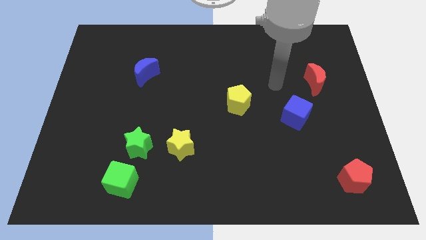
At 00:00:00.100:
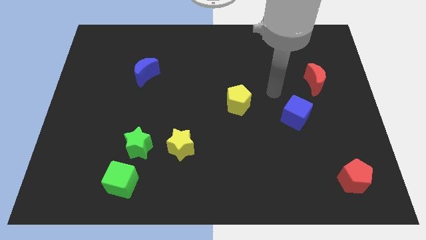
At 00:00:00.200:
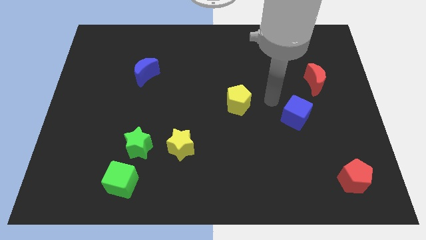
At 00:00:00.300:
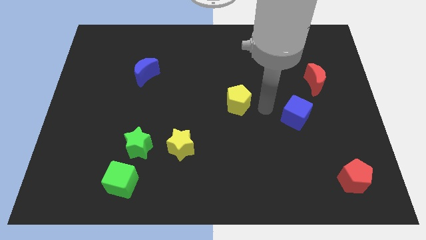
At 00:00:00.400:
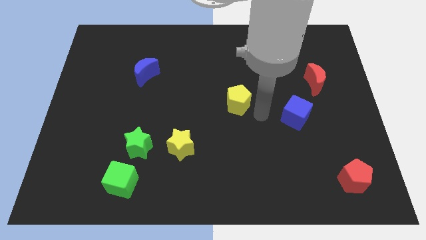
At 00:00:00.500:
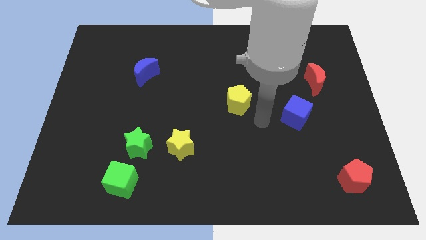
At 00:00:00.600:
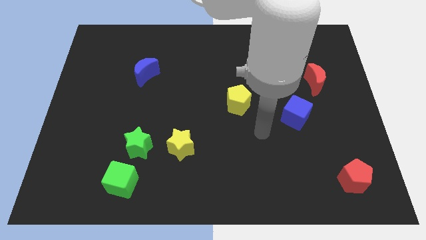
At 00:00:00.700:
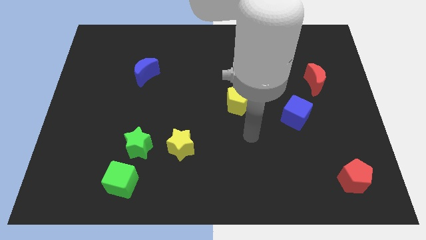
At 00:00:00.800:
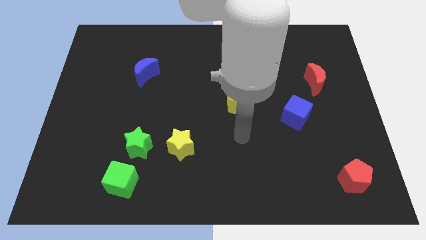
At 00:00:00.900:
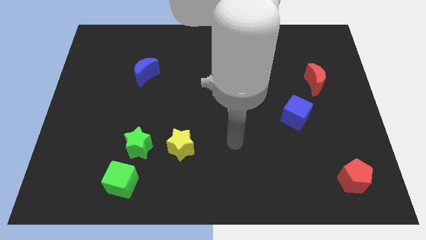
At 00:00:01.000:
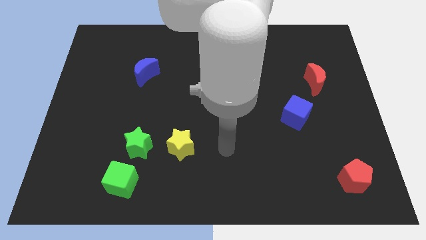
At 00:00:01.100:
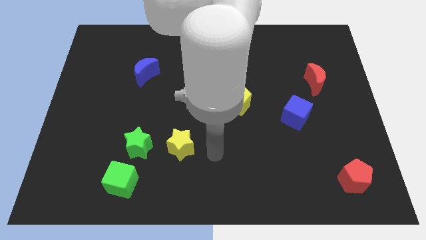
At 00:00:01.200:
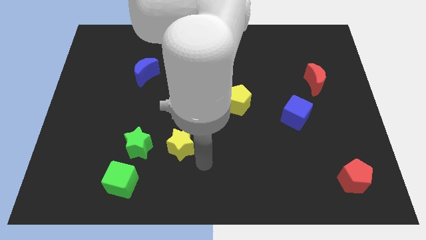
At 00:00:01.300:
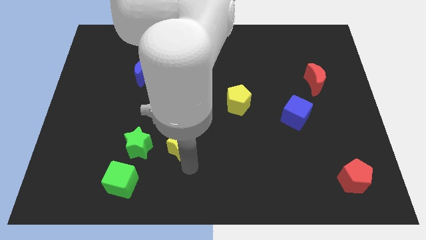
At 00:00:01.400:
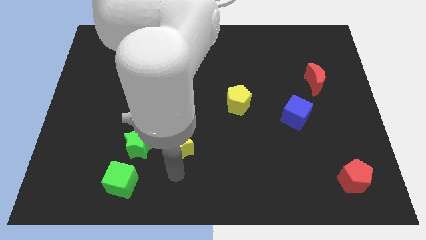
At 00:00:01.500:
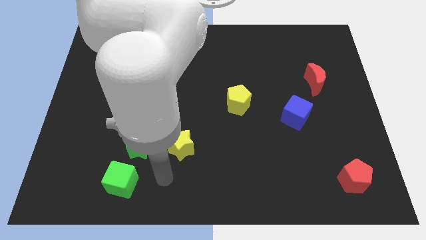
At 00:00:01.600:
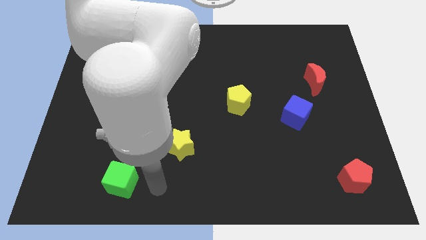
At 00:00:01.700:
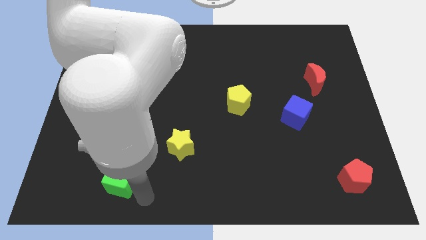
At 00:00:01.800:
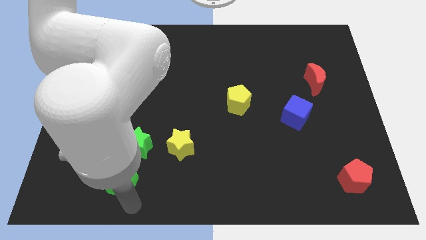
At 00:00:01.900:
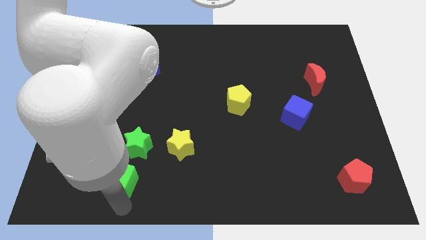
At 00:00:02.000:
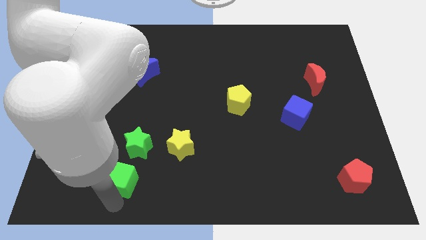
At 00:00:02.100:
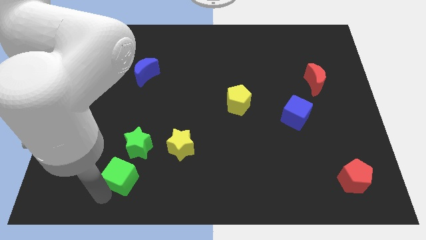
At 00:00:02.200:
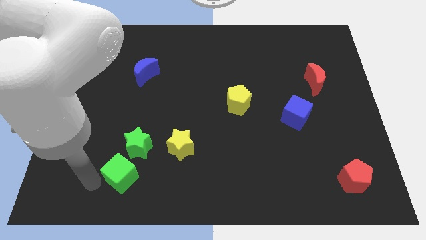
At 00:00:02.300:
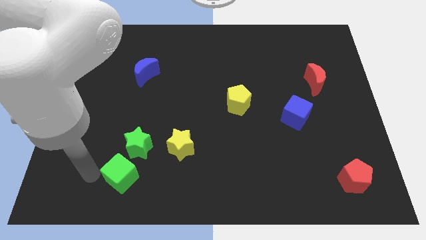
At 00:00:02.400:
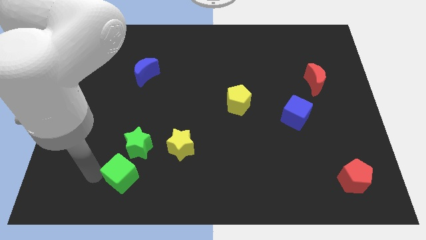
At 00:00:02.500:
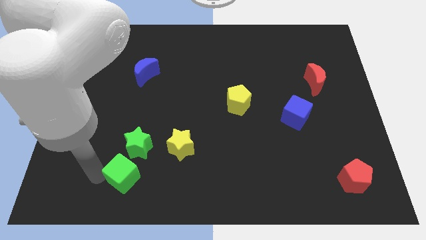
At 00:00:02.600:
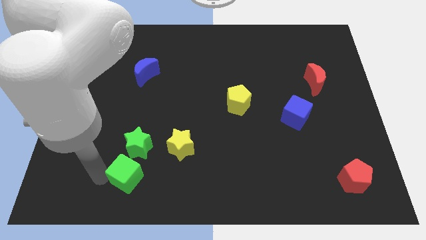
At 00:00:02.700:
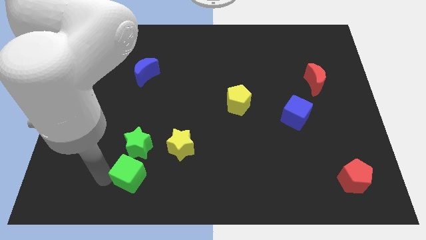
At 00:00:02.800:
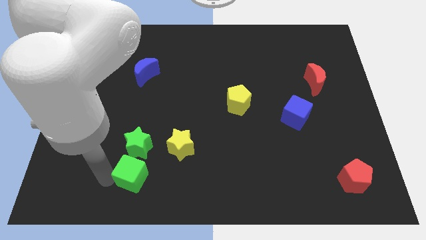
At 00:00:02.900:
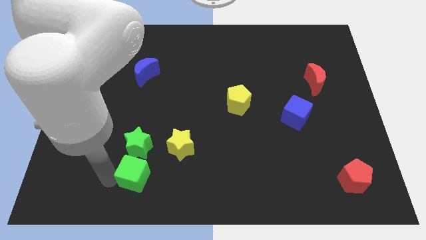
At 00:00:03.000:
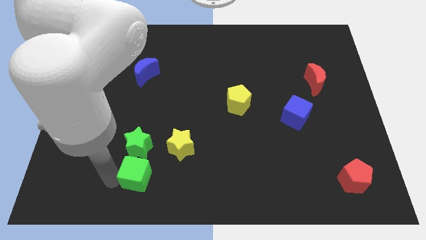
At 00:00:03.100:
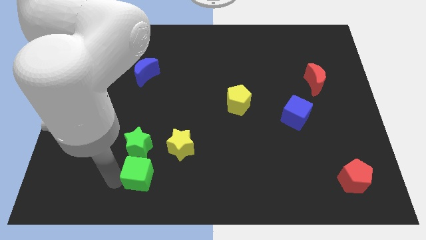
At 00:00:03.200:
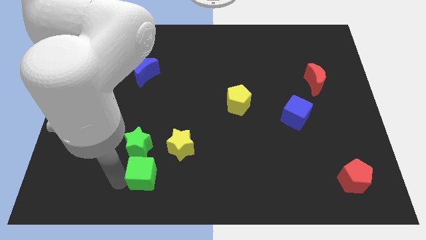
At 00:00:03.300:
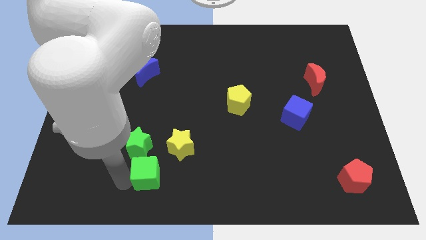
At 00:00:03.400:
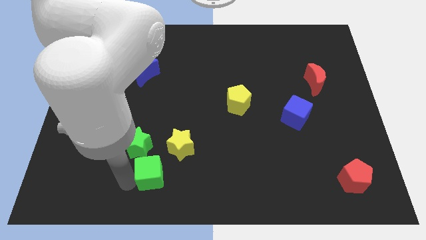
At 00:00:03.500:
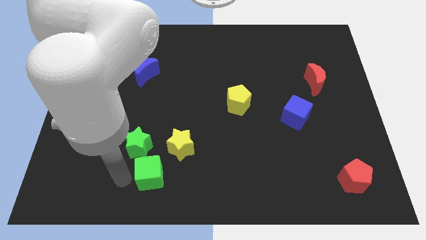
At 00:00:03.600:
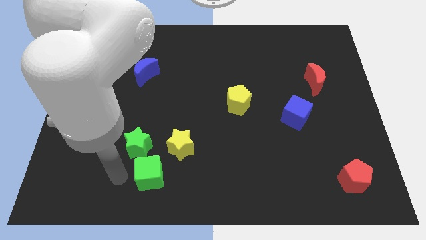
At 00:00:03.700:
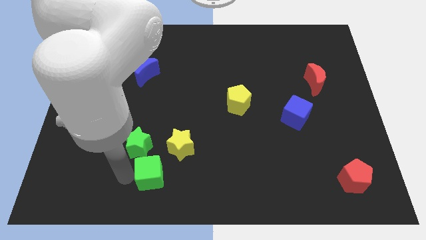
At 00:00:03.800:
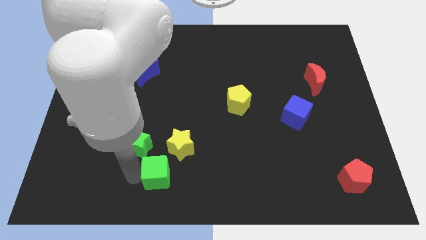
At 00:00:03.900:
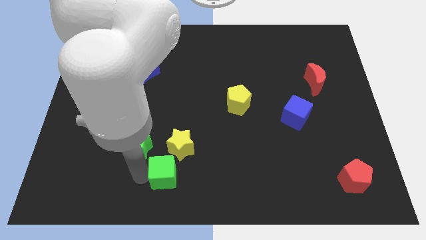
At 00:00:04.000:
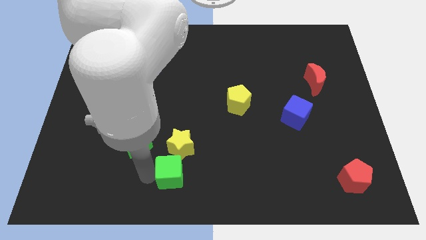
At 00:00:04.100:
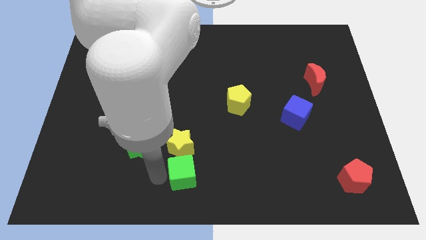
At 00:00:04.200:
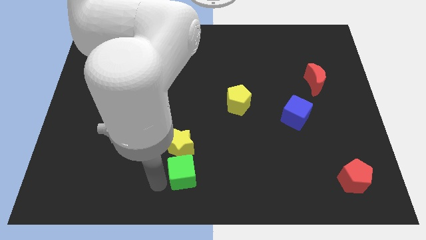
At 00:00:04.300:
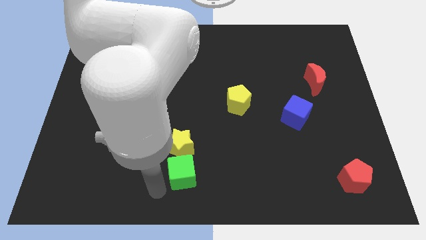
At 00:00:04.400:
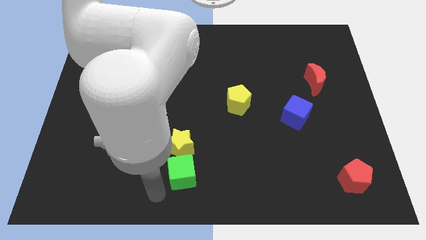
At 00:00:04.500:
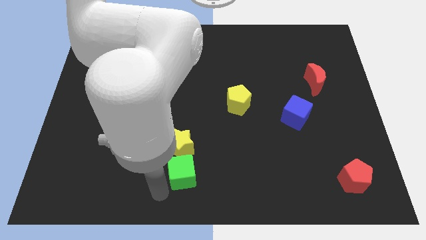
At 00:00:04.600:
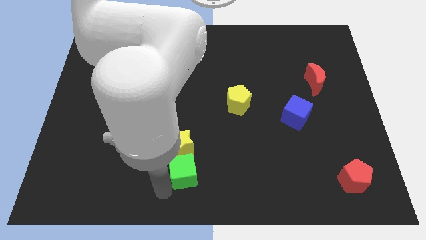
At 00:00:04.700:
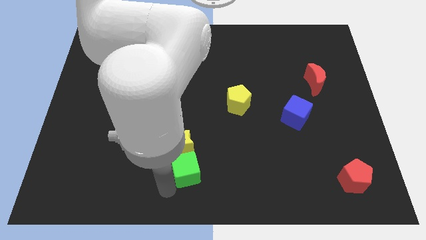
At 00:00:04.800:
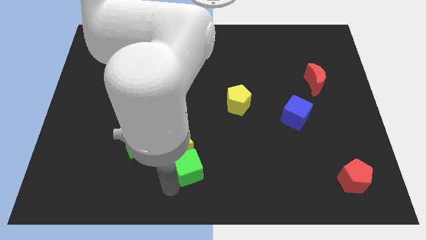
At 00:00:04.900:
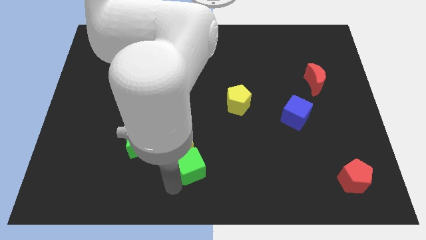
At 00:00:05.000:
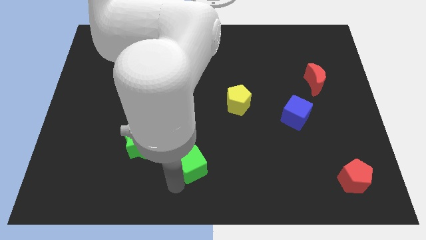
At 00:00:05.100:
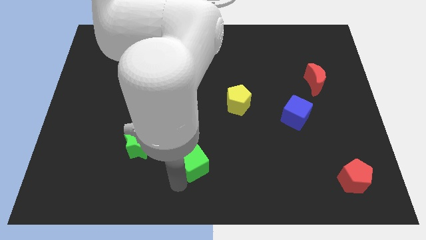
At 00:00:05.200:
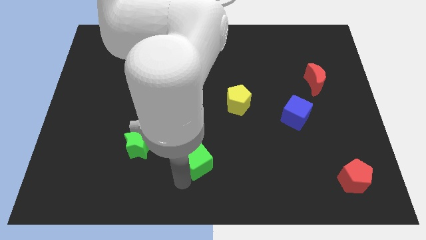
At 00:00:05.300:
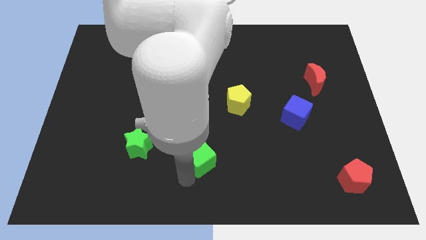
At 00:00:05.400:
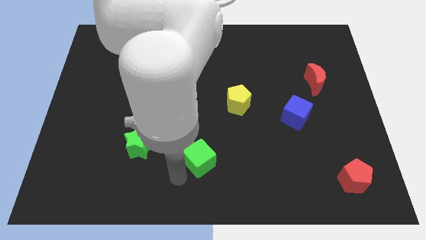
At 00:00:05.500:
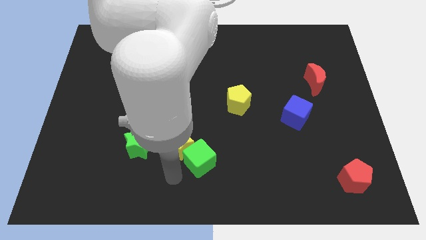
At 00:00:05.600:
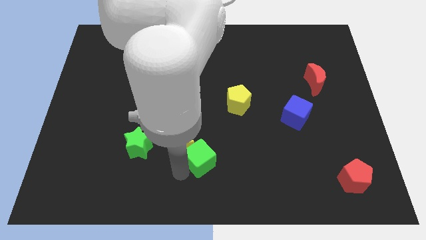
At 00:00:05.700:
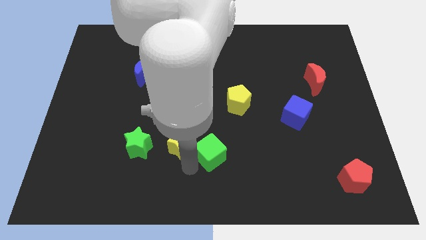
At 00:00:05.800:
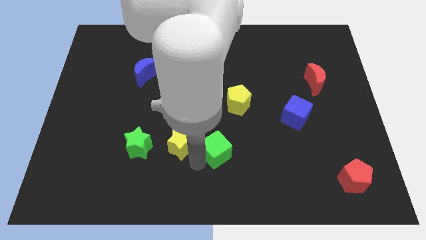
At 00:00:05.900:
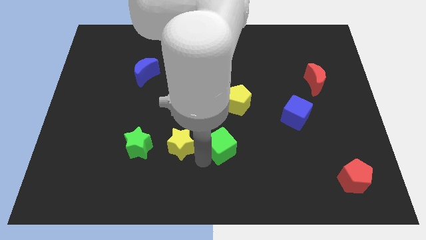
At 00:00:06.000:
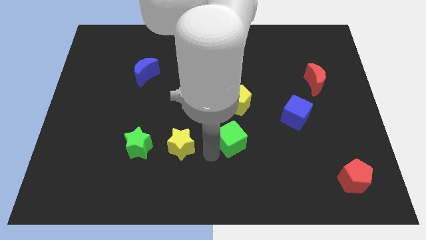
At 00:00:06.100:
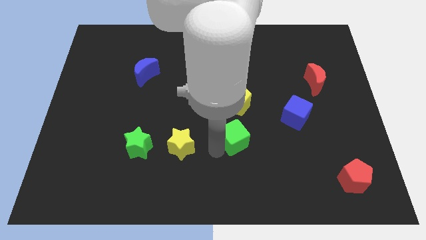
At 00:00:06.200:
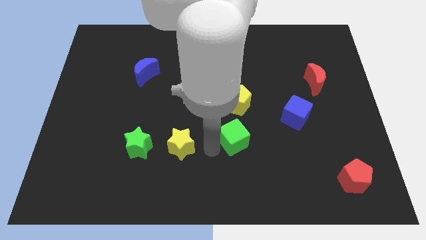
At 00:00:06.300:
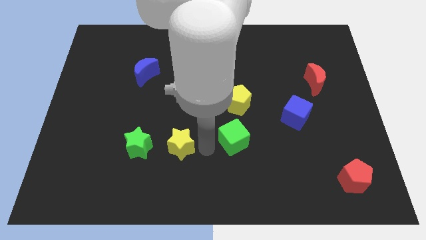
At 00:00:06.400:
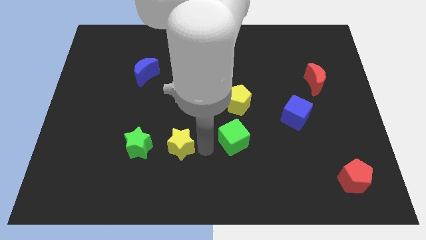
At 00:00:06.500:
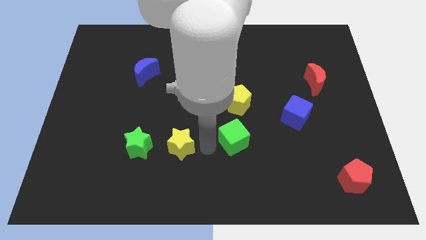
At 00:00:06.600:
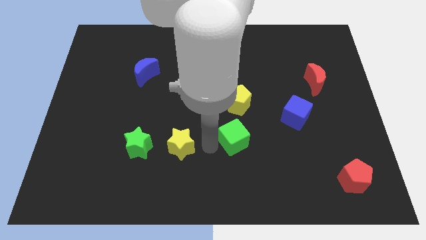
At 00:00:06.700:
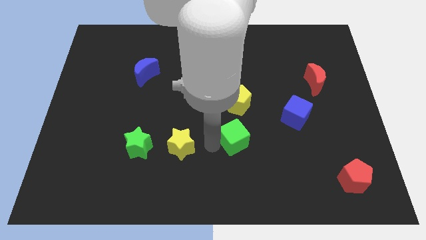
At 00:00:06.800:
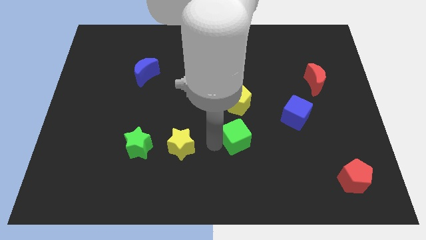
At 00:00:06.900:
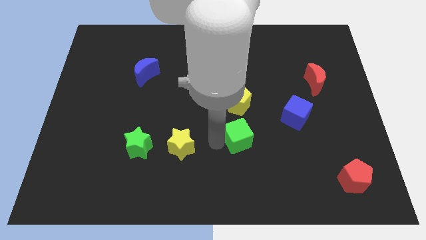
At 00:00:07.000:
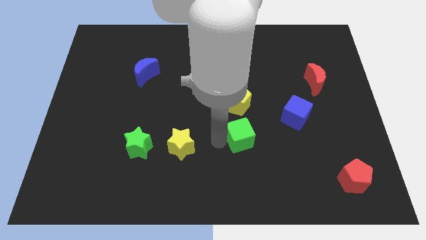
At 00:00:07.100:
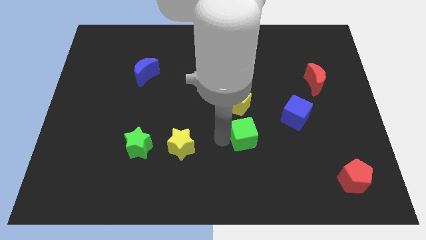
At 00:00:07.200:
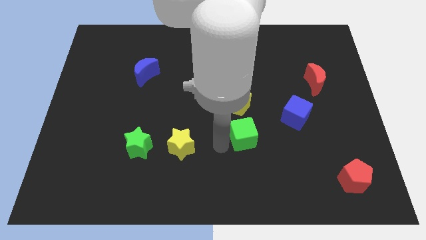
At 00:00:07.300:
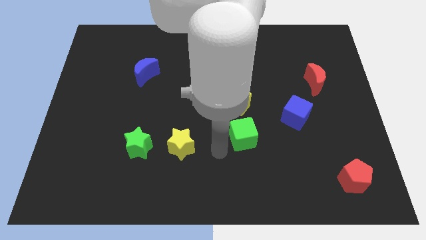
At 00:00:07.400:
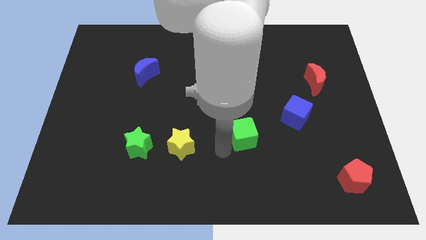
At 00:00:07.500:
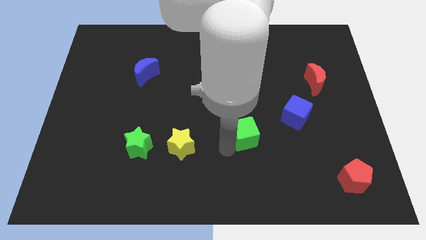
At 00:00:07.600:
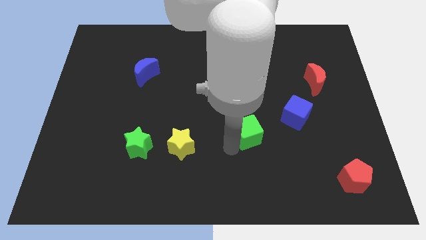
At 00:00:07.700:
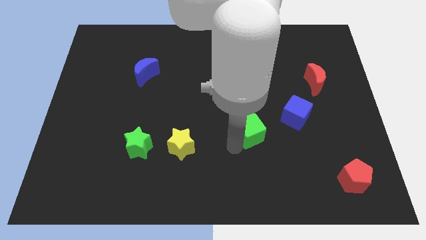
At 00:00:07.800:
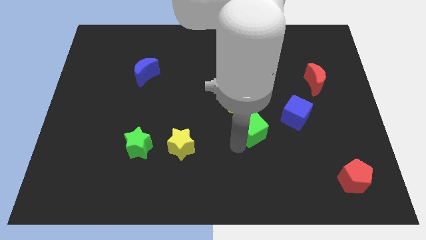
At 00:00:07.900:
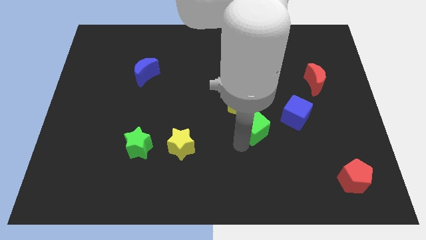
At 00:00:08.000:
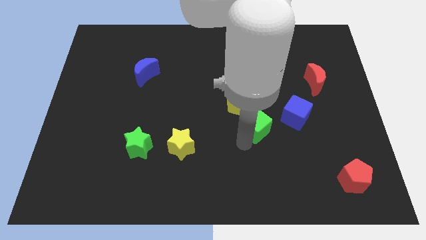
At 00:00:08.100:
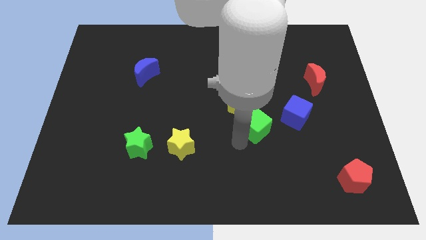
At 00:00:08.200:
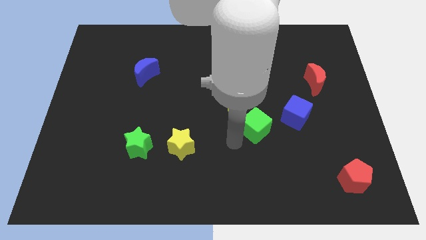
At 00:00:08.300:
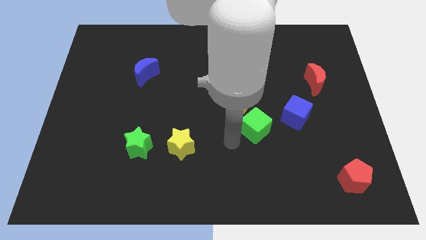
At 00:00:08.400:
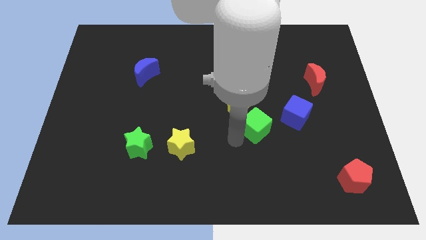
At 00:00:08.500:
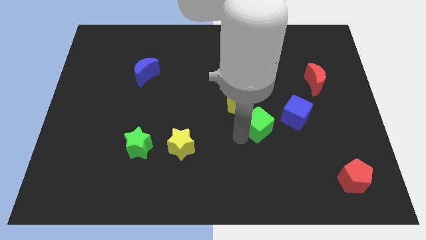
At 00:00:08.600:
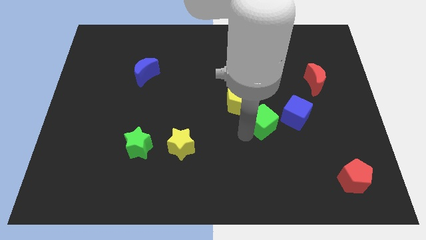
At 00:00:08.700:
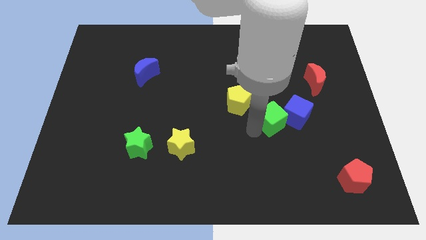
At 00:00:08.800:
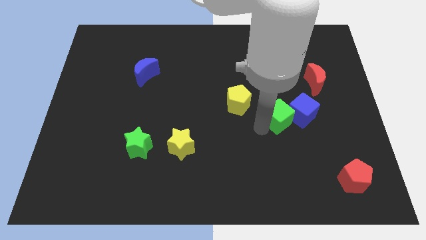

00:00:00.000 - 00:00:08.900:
slide the green cube right of the yellow pentagon
